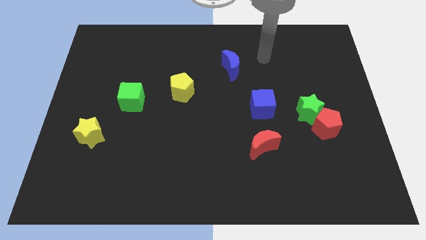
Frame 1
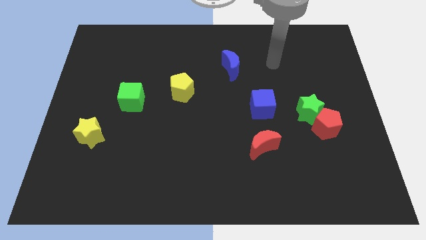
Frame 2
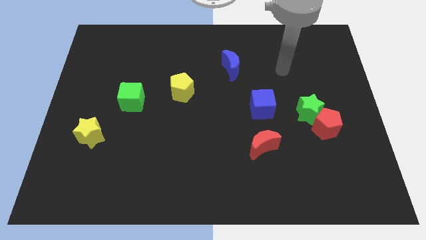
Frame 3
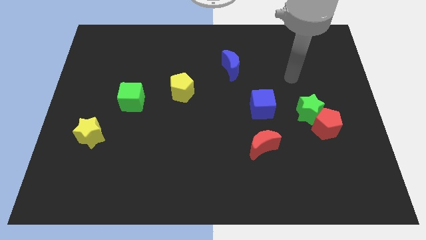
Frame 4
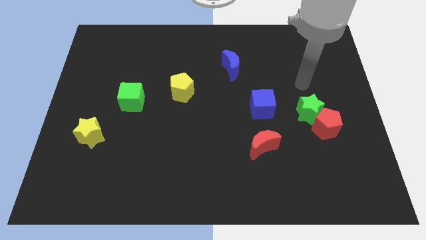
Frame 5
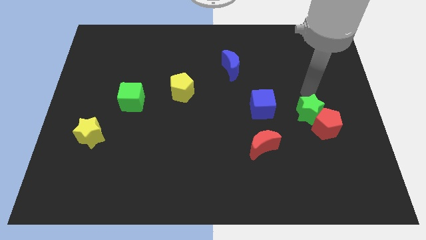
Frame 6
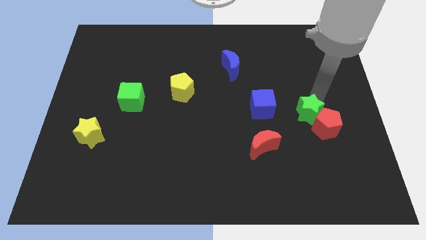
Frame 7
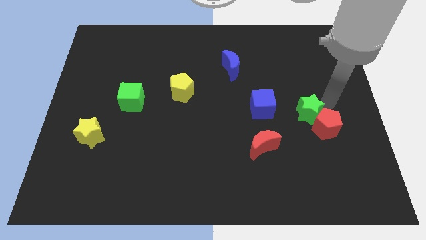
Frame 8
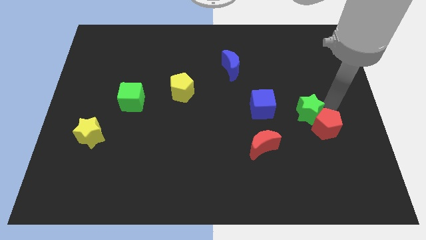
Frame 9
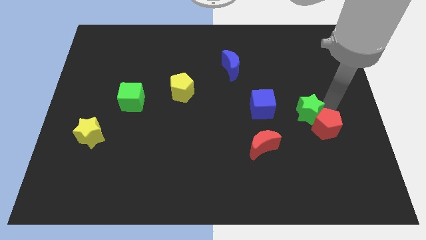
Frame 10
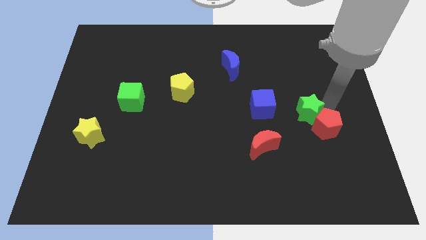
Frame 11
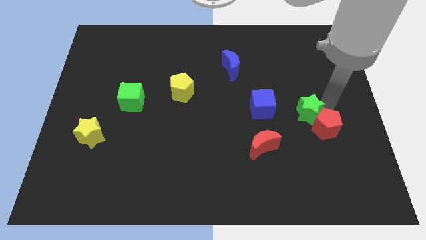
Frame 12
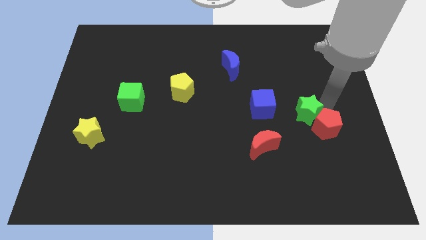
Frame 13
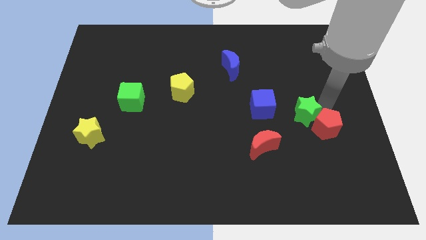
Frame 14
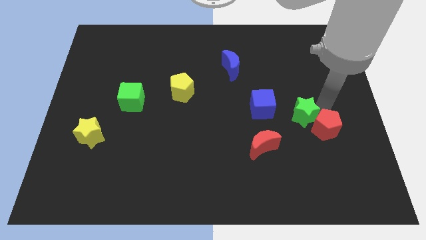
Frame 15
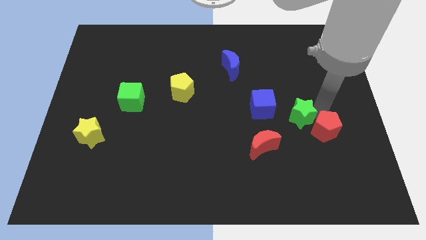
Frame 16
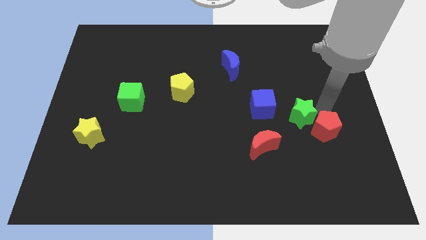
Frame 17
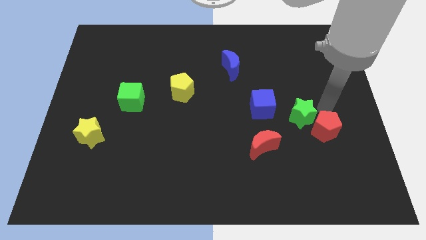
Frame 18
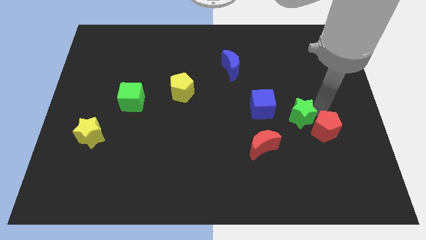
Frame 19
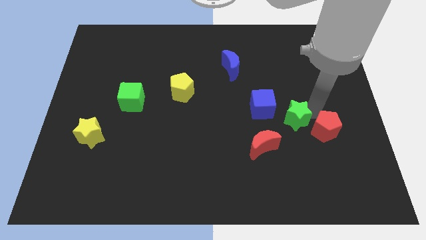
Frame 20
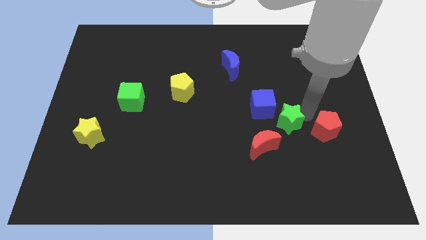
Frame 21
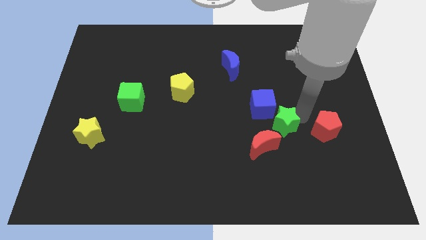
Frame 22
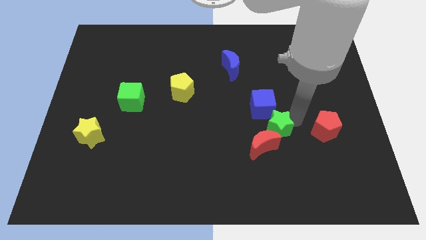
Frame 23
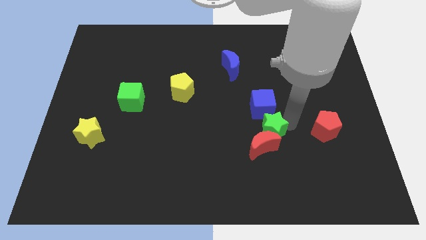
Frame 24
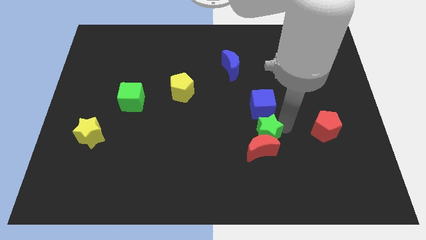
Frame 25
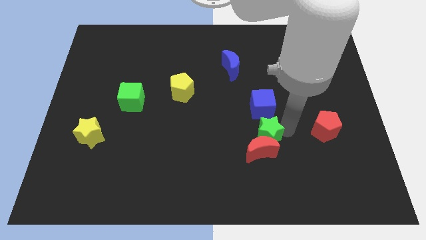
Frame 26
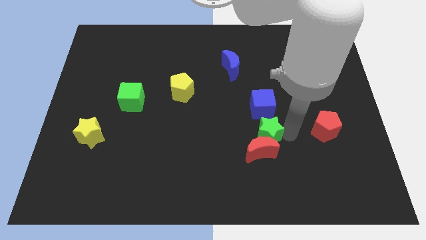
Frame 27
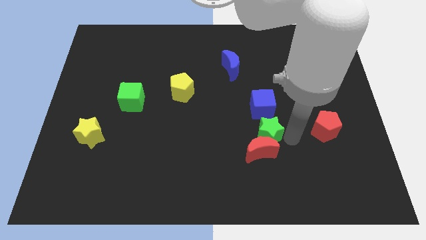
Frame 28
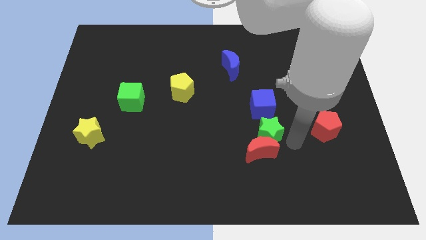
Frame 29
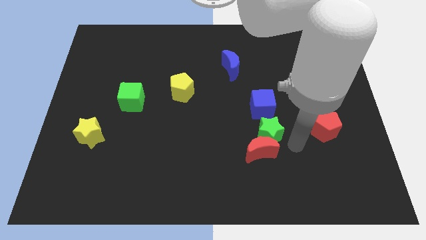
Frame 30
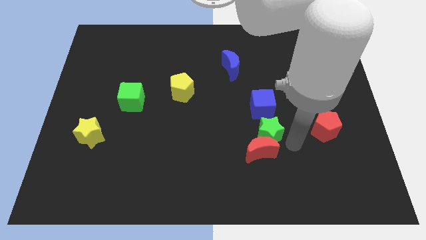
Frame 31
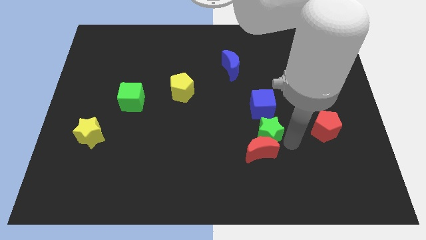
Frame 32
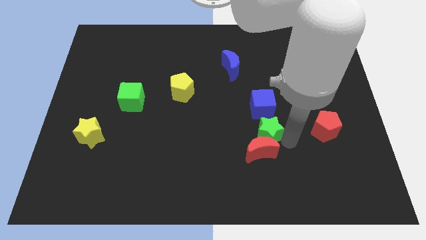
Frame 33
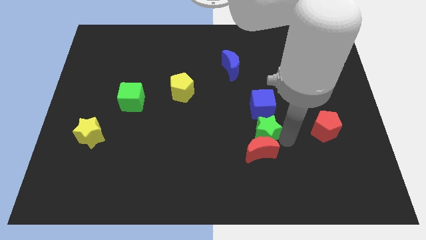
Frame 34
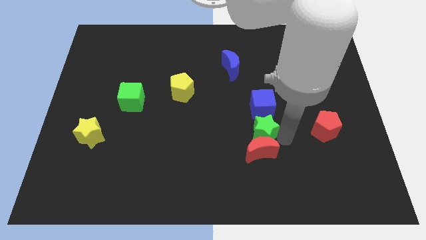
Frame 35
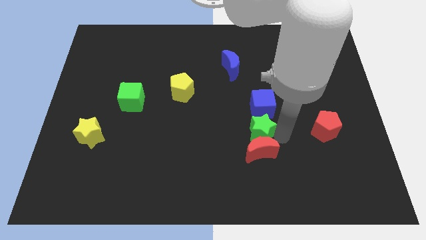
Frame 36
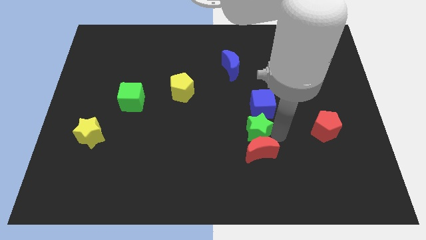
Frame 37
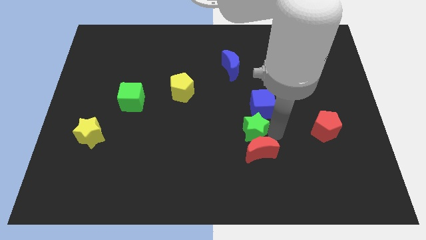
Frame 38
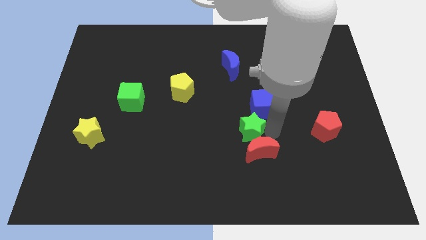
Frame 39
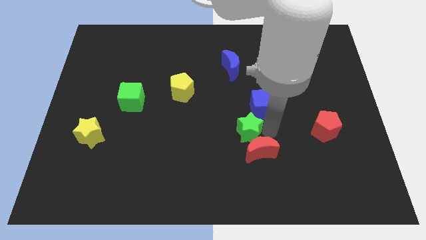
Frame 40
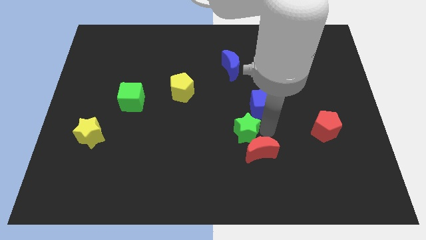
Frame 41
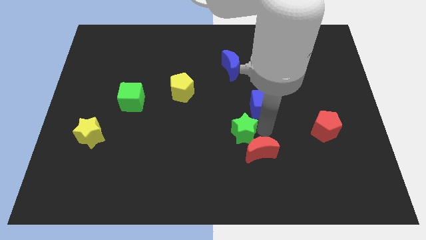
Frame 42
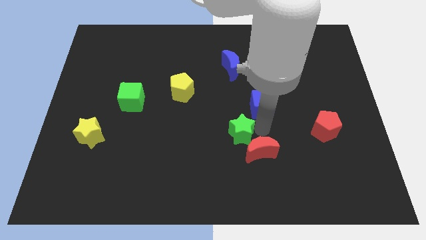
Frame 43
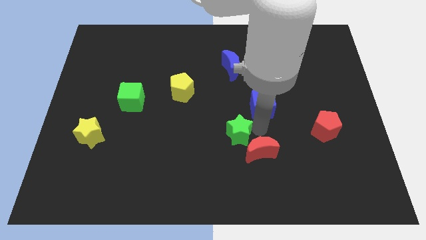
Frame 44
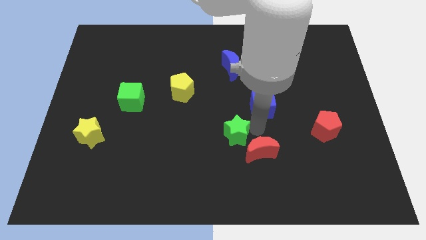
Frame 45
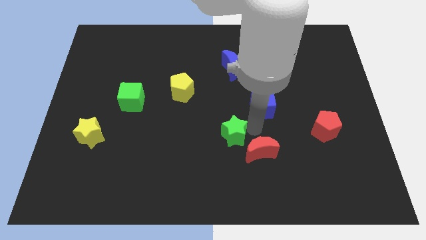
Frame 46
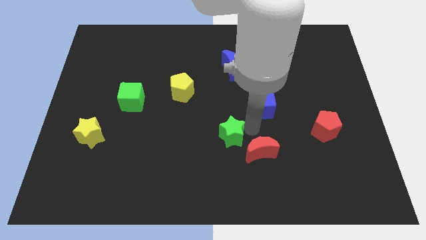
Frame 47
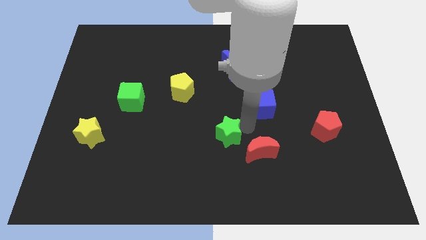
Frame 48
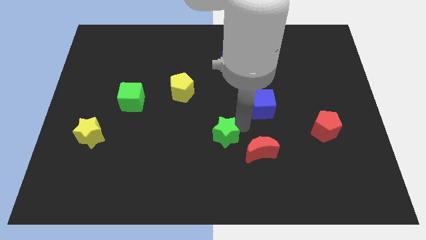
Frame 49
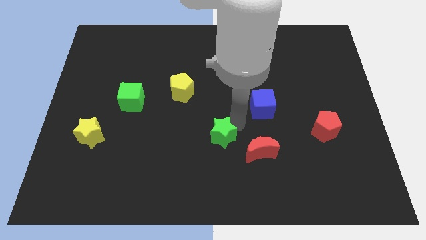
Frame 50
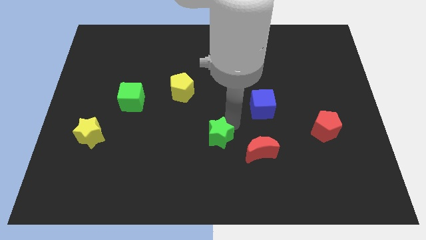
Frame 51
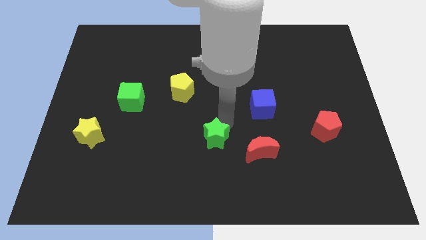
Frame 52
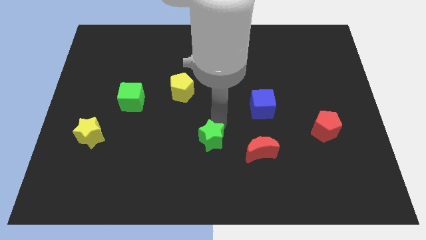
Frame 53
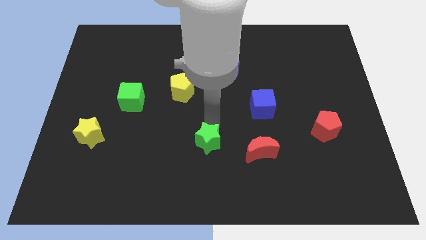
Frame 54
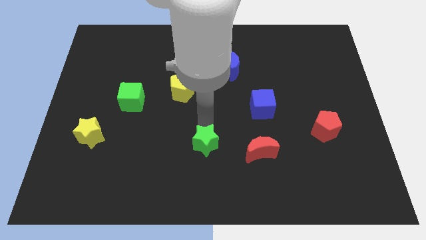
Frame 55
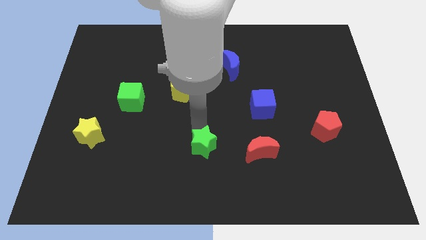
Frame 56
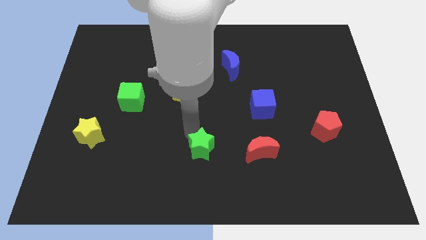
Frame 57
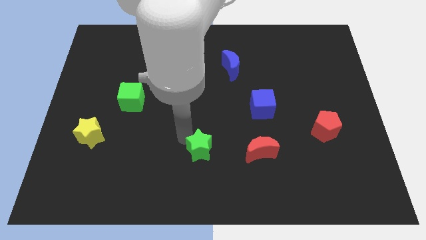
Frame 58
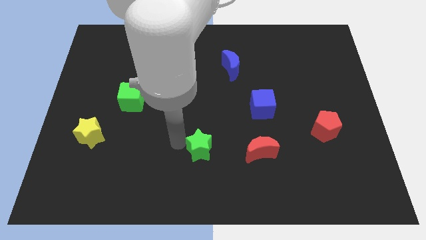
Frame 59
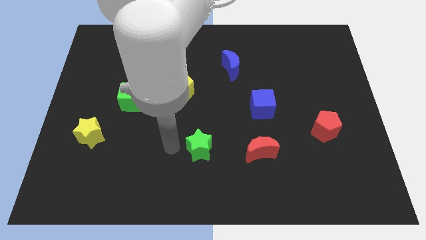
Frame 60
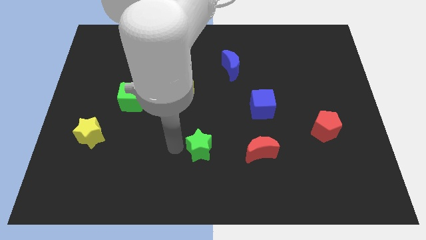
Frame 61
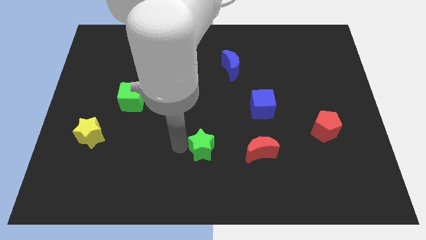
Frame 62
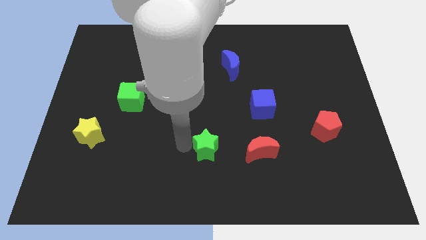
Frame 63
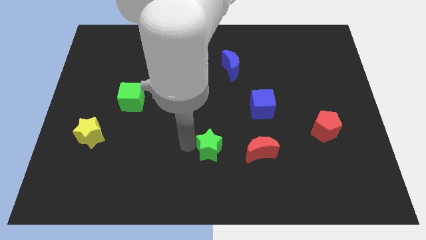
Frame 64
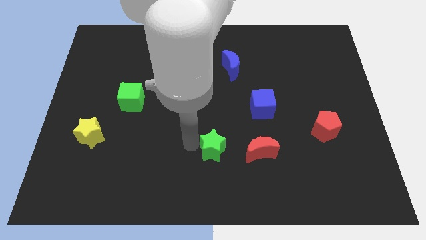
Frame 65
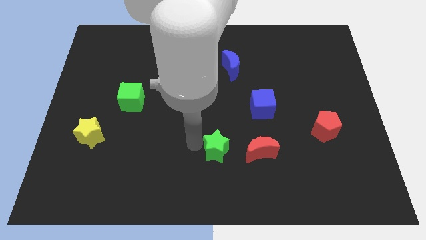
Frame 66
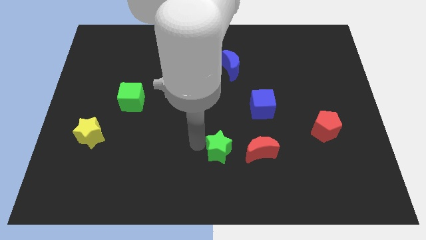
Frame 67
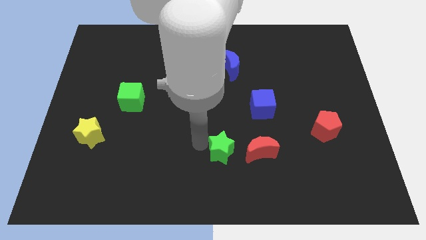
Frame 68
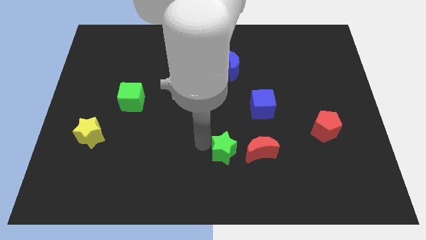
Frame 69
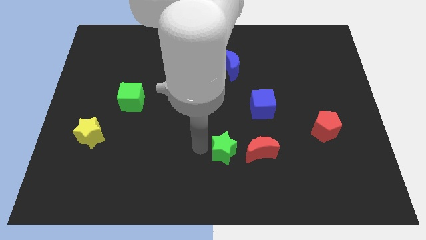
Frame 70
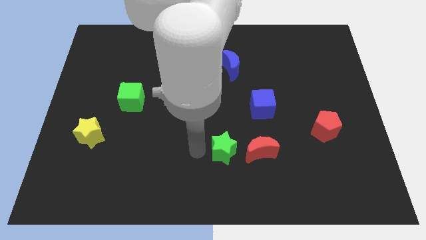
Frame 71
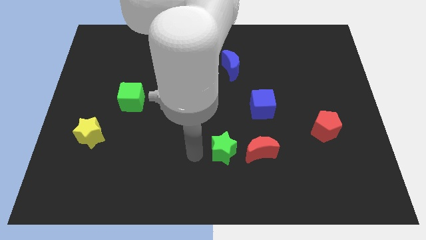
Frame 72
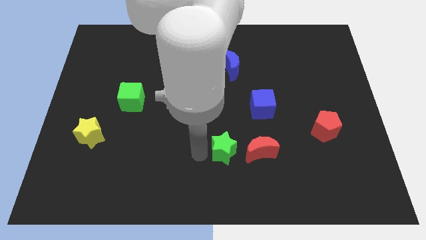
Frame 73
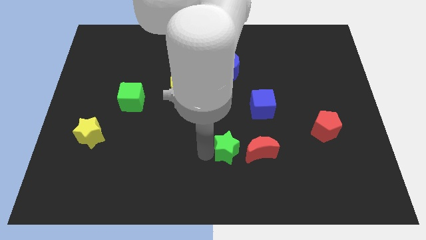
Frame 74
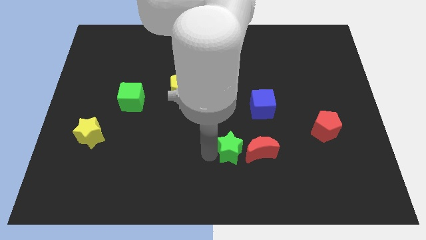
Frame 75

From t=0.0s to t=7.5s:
push the green star to the bottom left side of the red moon
